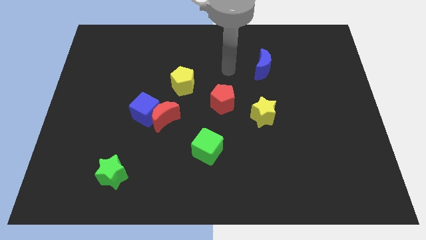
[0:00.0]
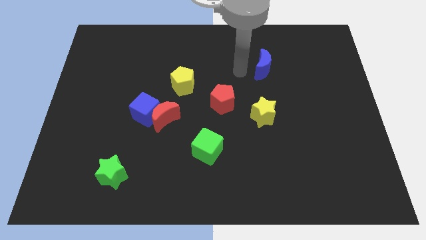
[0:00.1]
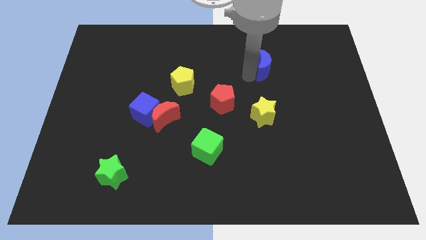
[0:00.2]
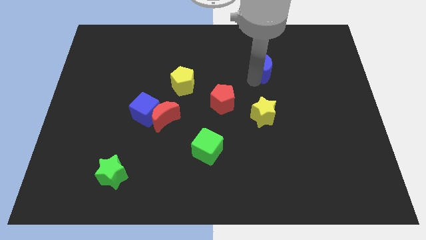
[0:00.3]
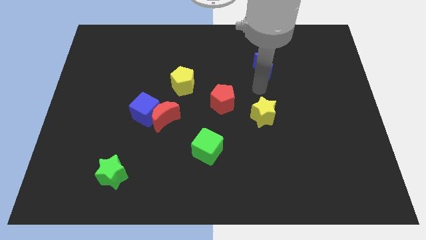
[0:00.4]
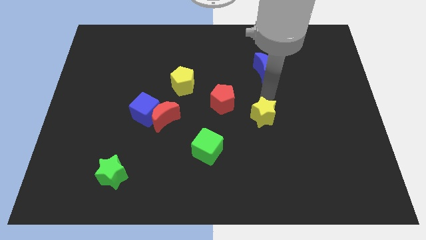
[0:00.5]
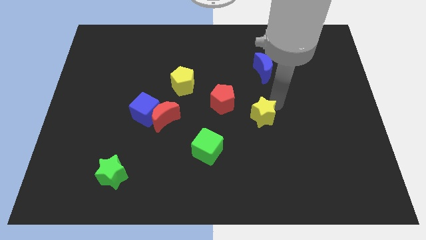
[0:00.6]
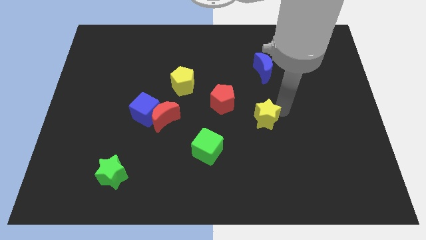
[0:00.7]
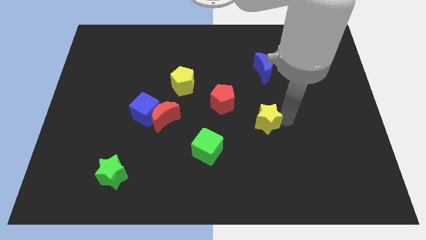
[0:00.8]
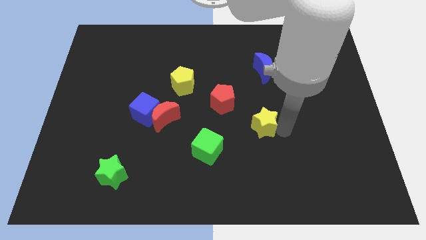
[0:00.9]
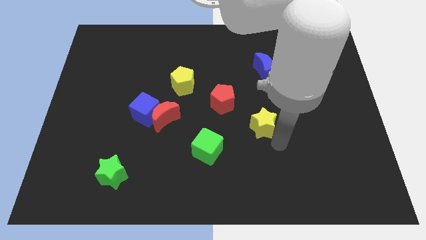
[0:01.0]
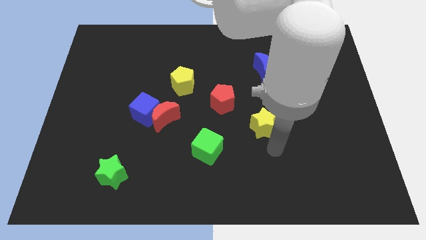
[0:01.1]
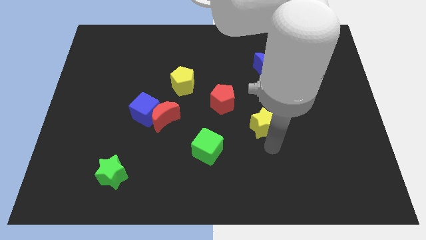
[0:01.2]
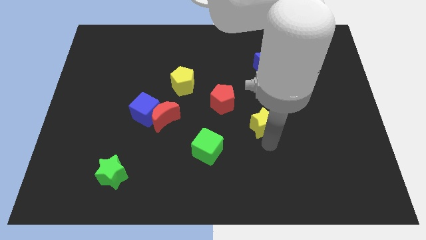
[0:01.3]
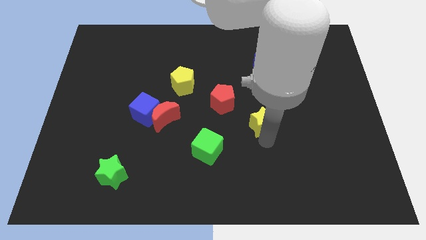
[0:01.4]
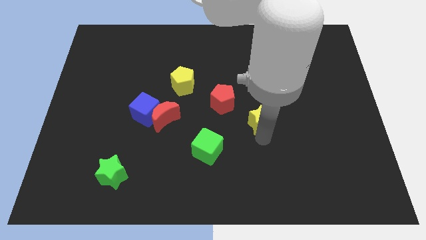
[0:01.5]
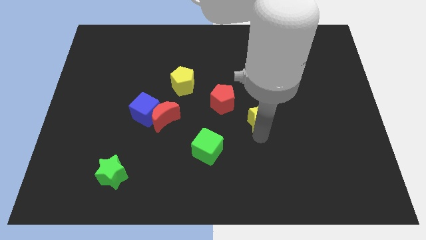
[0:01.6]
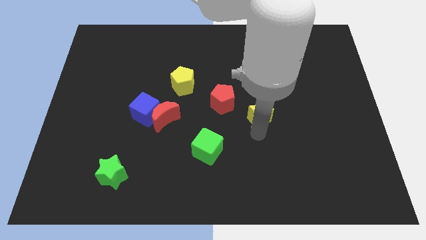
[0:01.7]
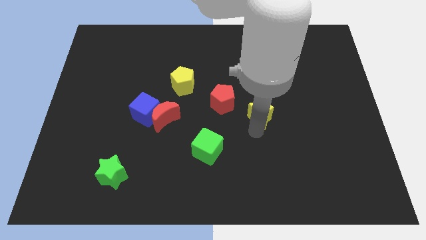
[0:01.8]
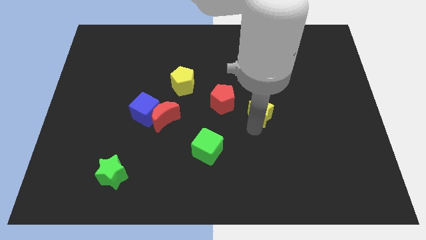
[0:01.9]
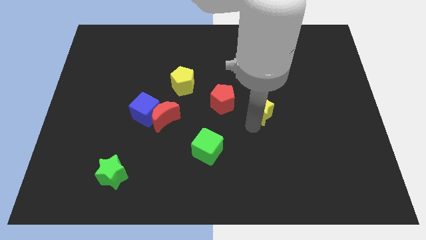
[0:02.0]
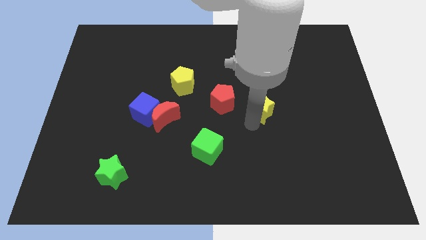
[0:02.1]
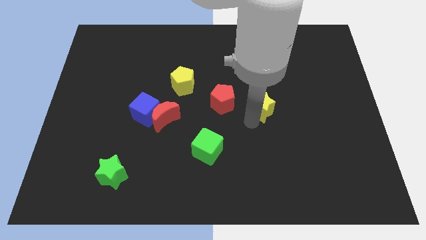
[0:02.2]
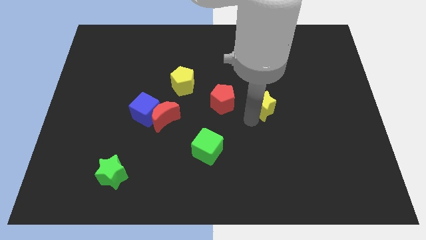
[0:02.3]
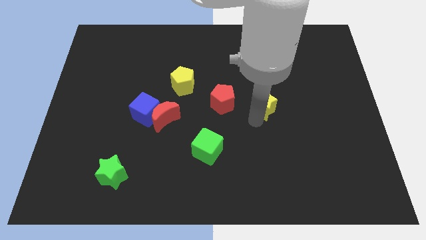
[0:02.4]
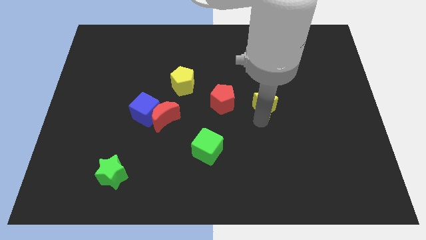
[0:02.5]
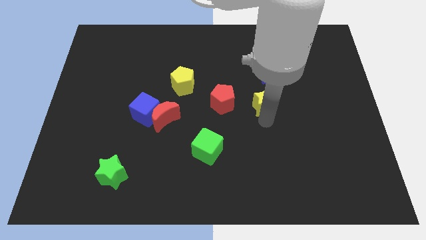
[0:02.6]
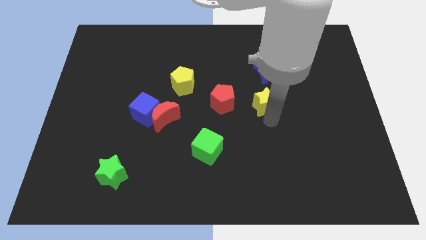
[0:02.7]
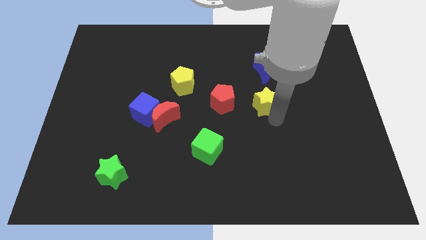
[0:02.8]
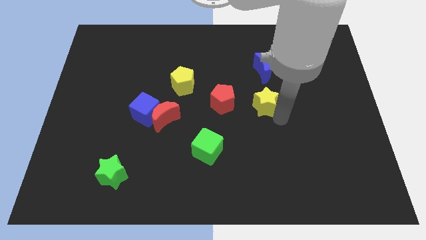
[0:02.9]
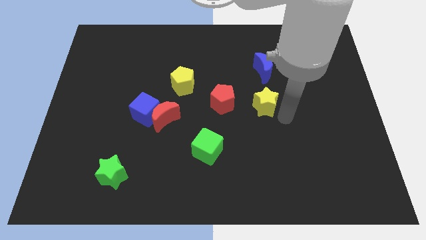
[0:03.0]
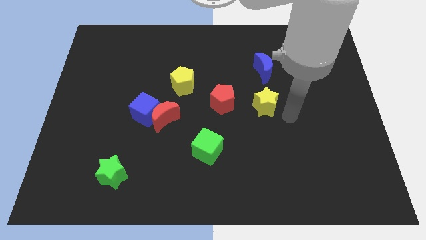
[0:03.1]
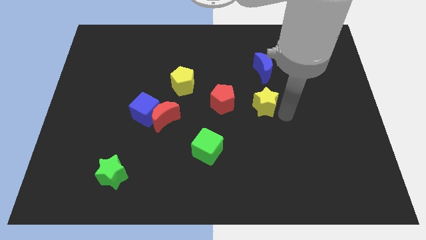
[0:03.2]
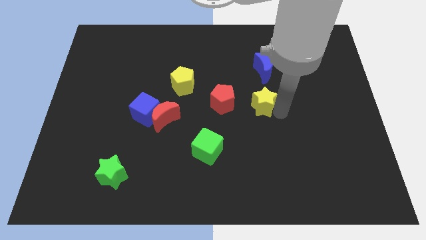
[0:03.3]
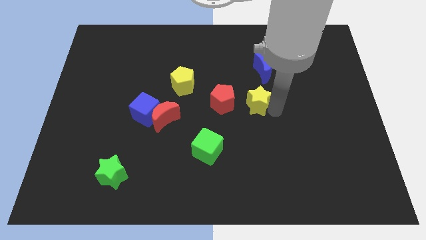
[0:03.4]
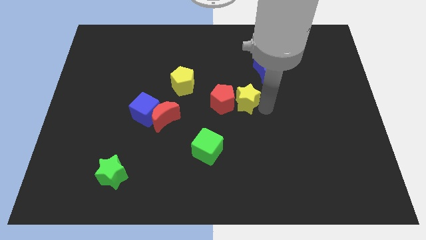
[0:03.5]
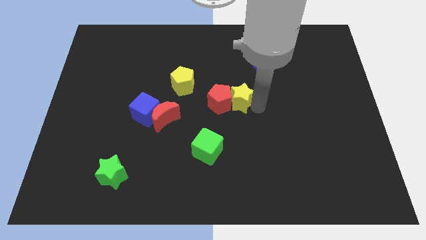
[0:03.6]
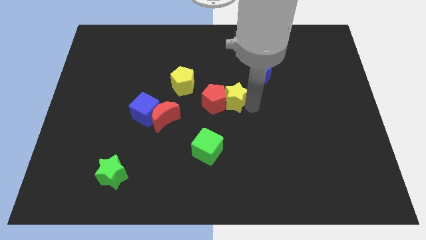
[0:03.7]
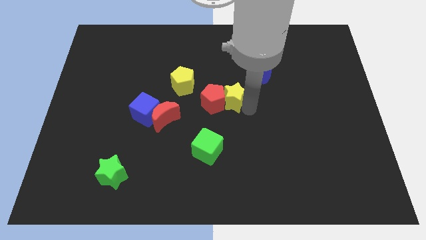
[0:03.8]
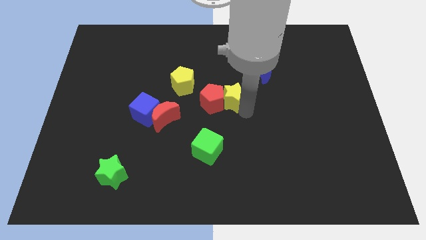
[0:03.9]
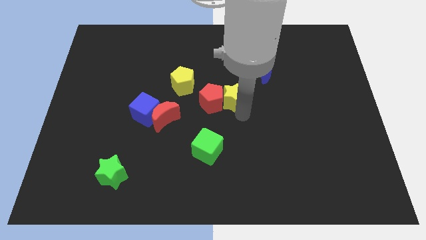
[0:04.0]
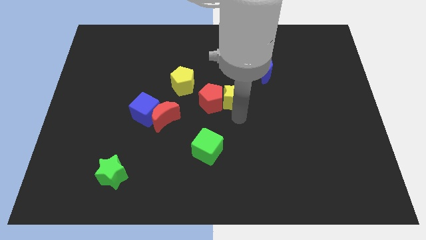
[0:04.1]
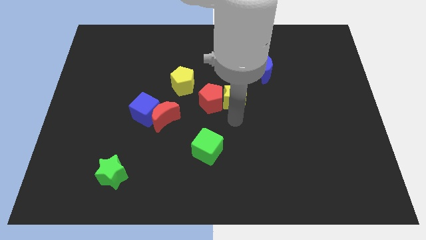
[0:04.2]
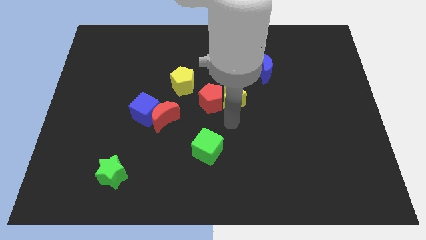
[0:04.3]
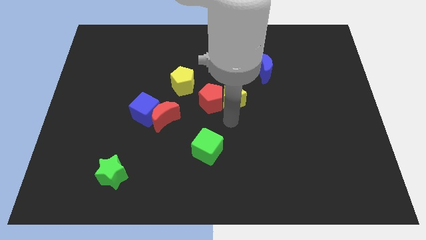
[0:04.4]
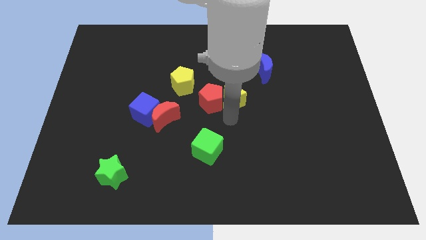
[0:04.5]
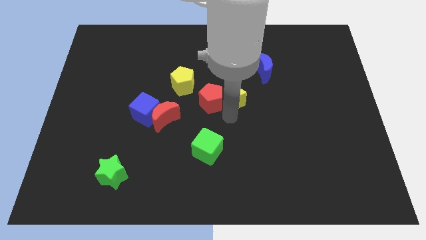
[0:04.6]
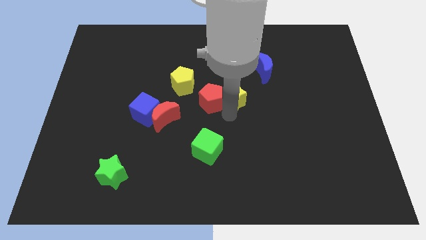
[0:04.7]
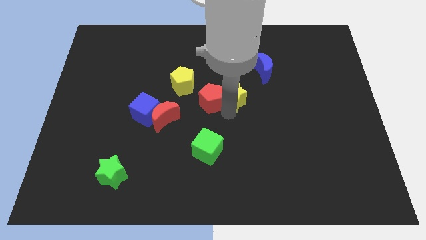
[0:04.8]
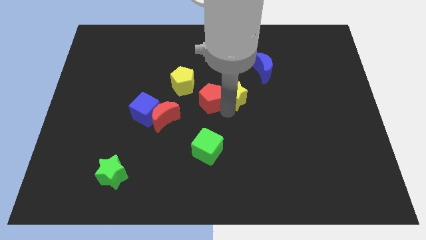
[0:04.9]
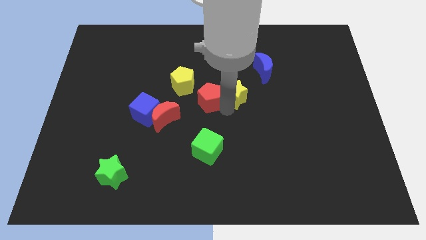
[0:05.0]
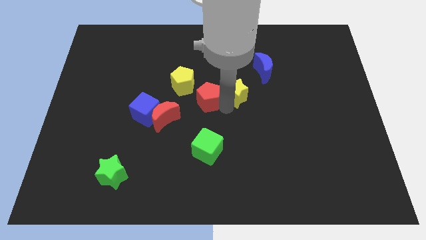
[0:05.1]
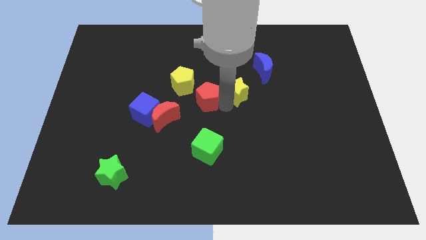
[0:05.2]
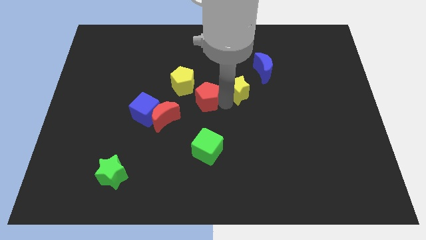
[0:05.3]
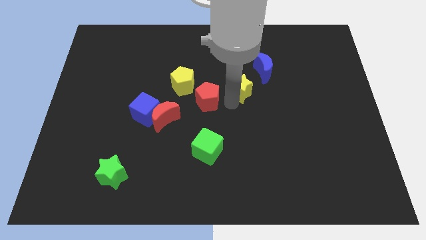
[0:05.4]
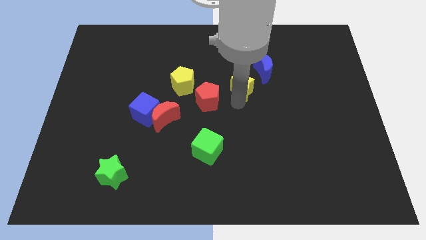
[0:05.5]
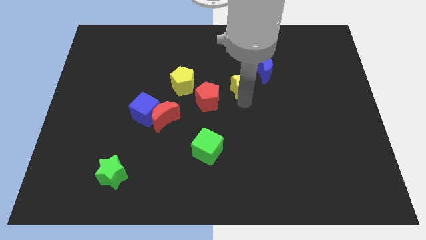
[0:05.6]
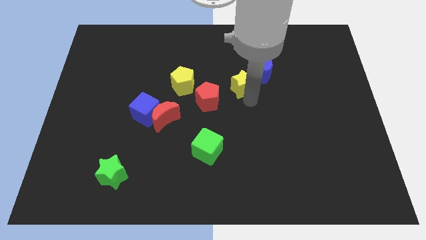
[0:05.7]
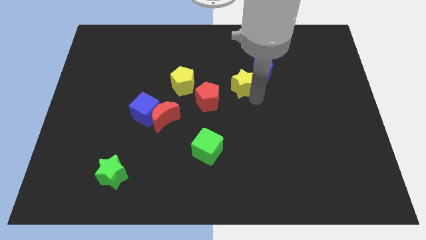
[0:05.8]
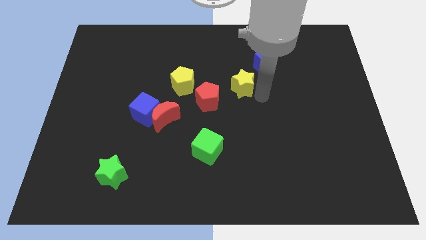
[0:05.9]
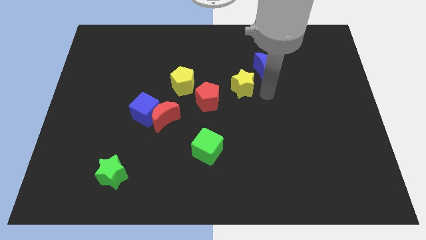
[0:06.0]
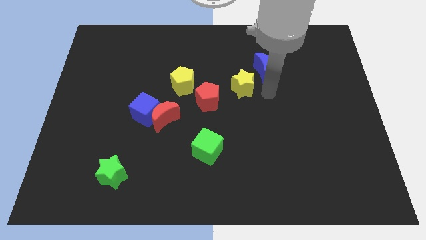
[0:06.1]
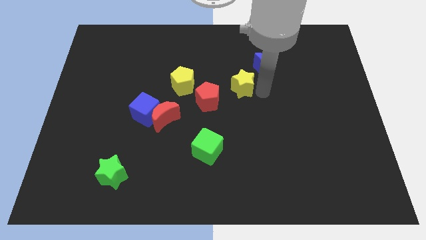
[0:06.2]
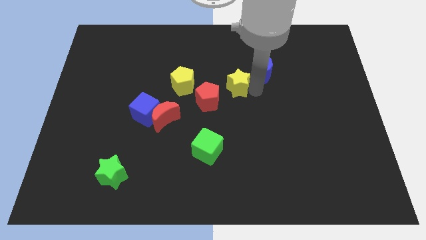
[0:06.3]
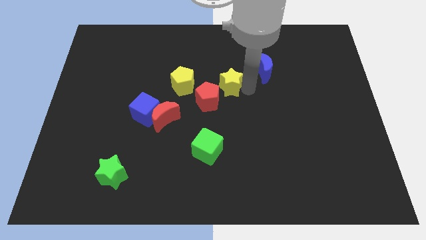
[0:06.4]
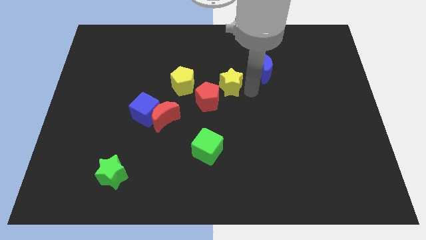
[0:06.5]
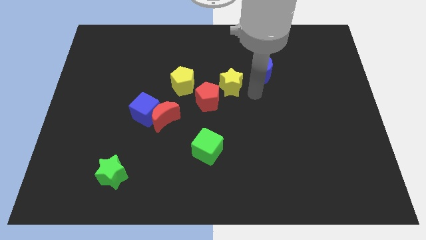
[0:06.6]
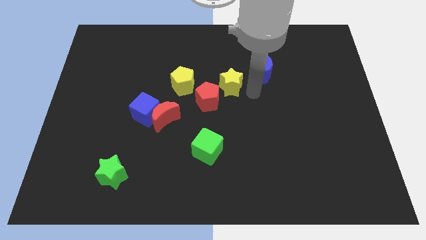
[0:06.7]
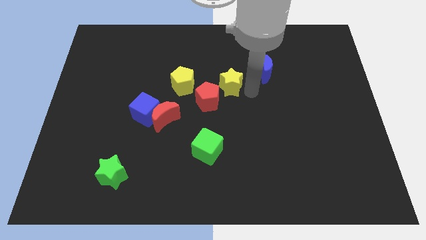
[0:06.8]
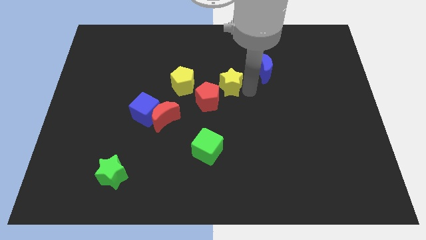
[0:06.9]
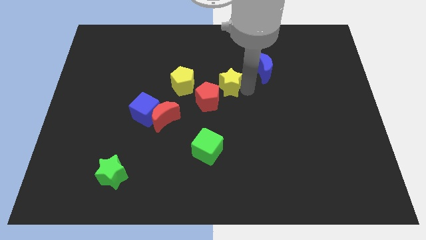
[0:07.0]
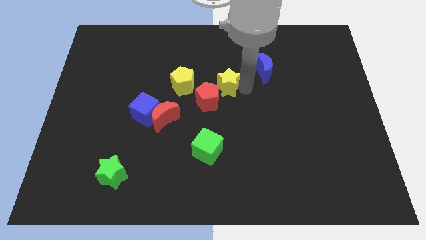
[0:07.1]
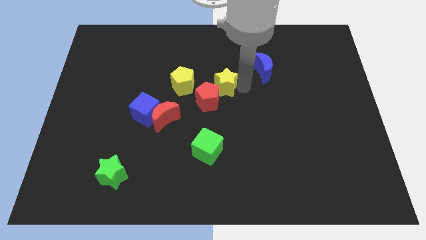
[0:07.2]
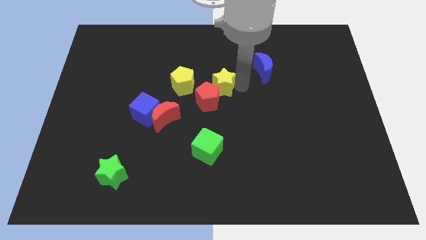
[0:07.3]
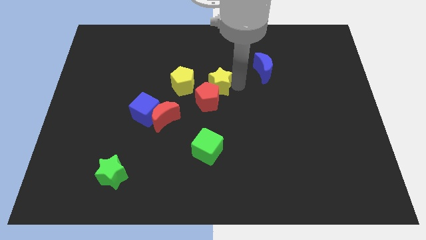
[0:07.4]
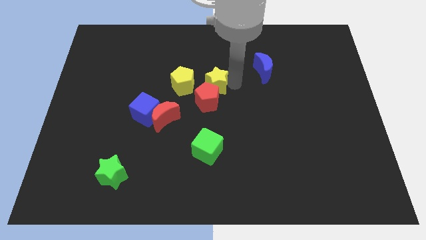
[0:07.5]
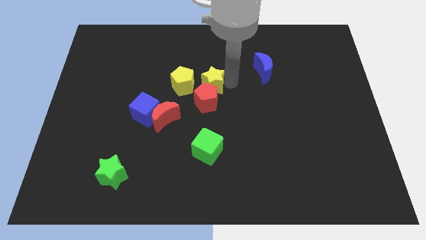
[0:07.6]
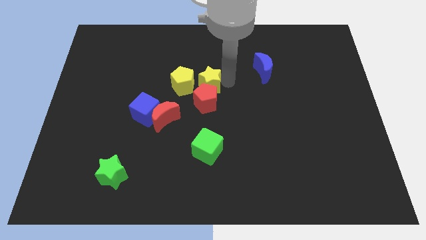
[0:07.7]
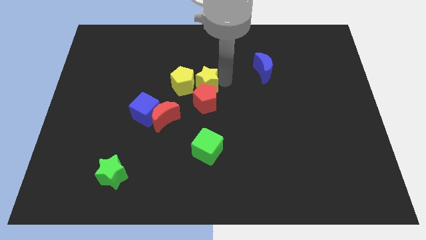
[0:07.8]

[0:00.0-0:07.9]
slide the yellow star towards the yellow pentagon
